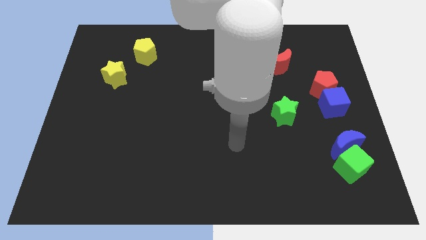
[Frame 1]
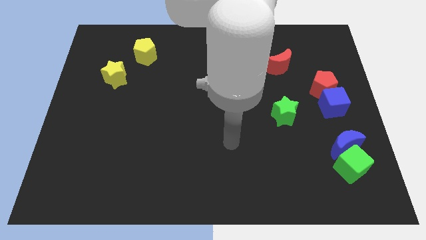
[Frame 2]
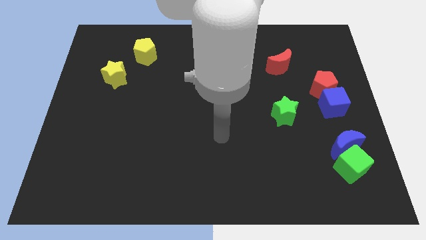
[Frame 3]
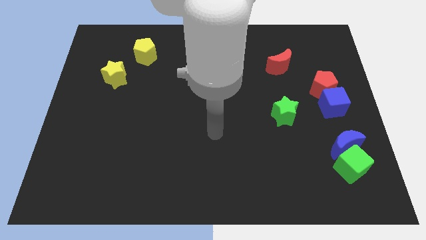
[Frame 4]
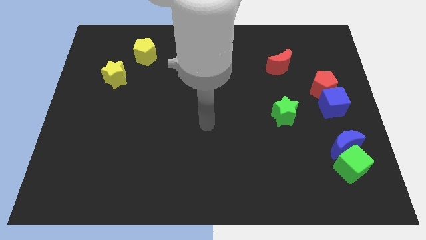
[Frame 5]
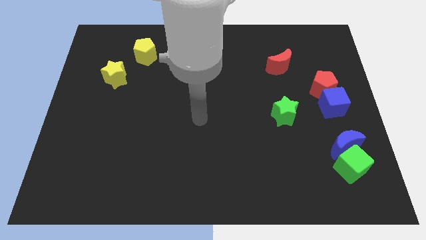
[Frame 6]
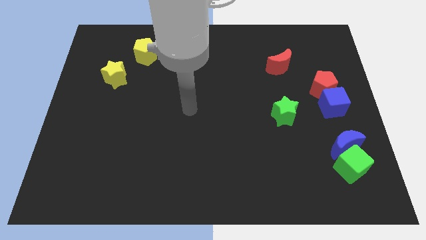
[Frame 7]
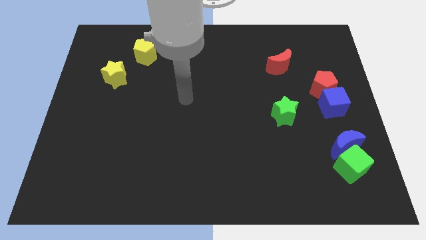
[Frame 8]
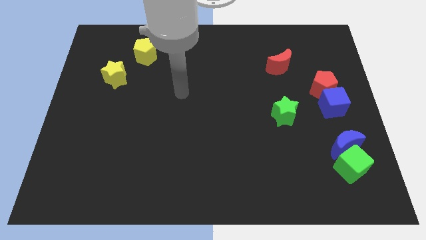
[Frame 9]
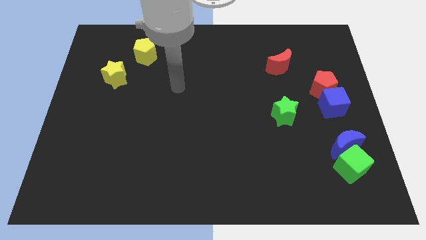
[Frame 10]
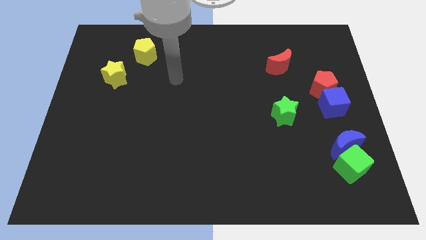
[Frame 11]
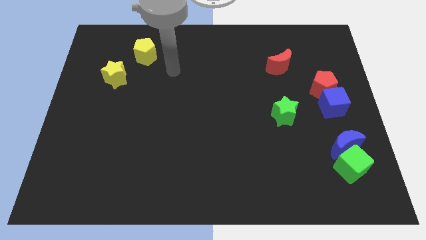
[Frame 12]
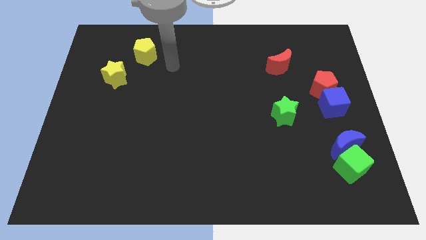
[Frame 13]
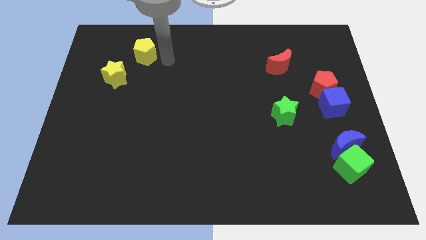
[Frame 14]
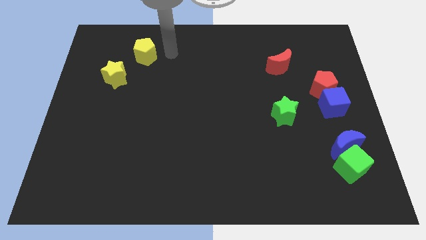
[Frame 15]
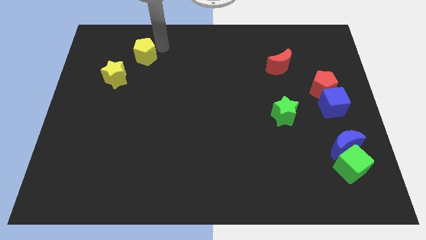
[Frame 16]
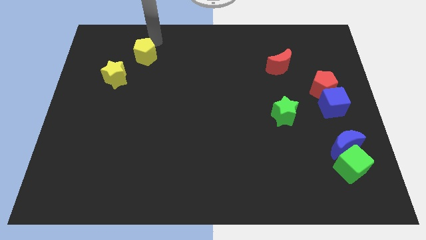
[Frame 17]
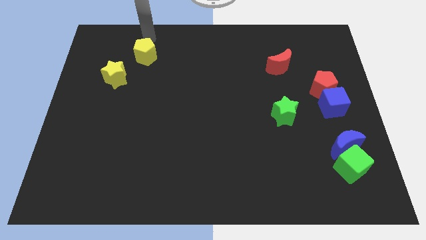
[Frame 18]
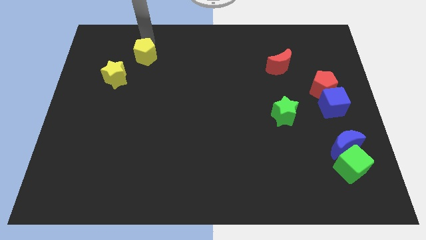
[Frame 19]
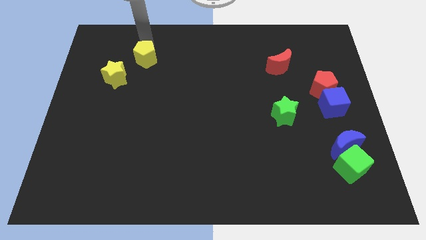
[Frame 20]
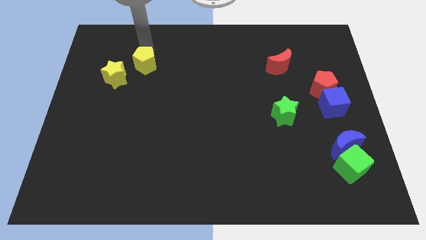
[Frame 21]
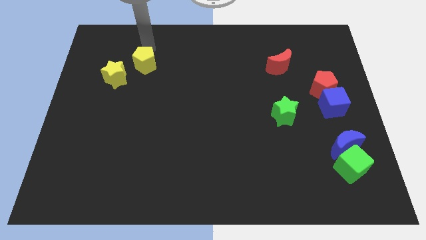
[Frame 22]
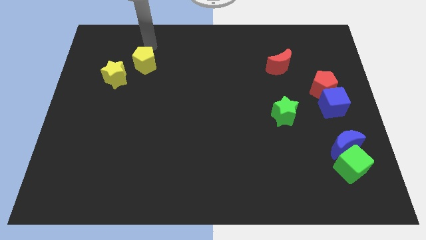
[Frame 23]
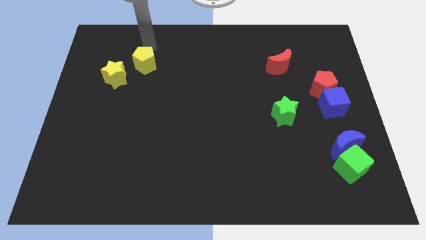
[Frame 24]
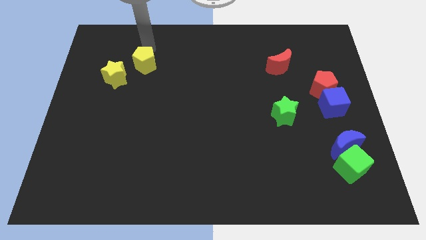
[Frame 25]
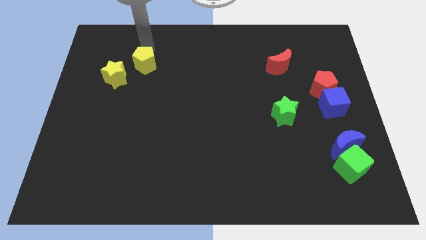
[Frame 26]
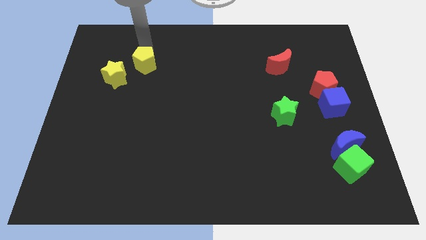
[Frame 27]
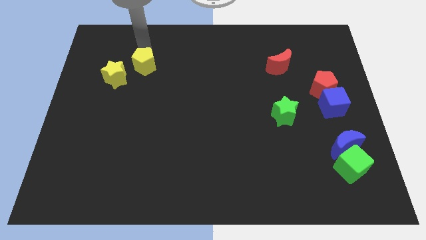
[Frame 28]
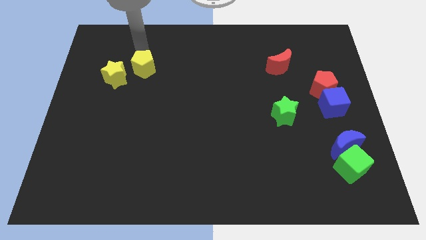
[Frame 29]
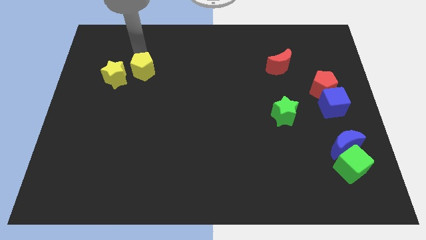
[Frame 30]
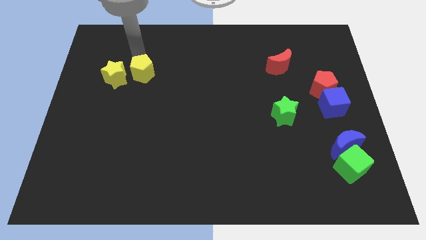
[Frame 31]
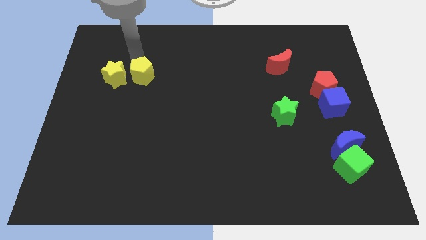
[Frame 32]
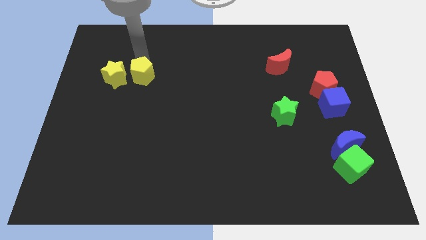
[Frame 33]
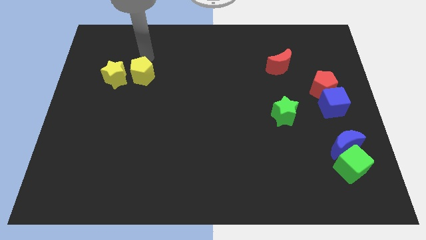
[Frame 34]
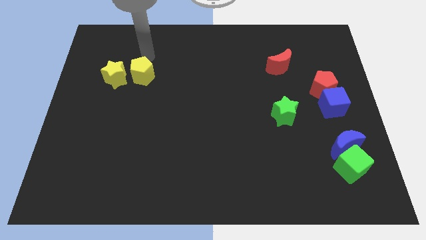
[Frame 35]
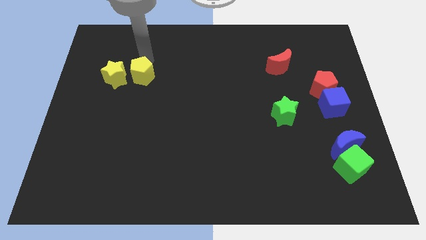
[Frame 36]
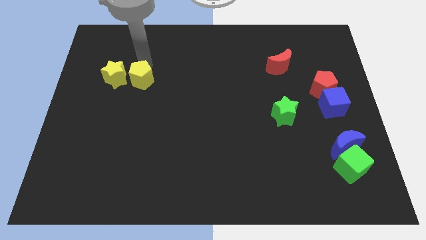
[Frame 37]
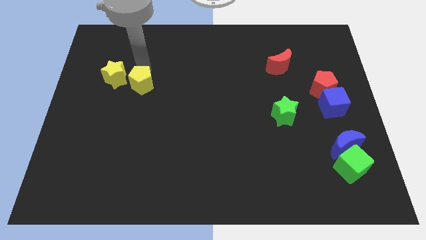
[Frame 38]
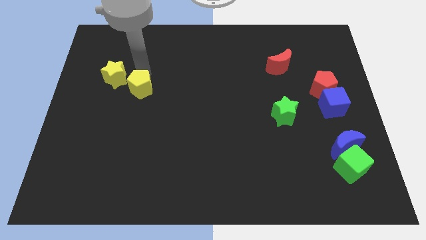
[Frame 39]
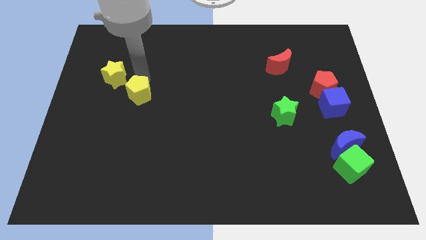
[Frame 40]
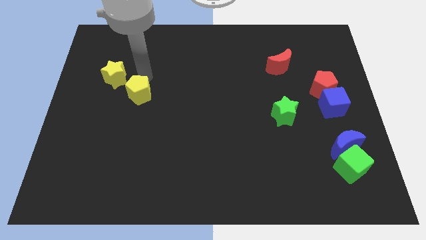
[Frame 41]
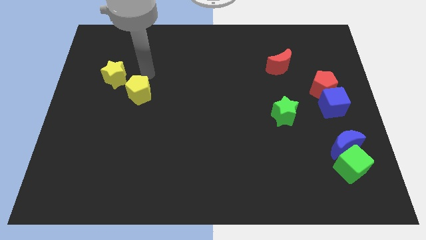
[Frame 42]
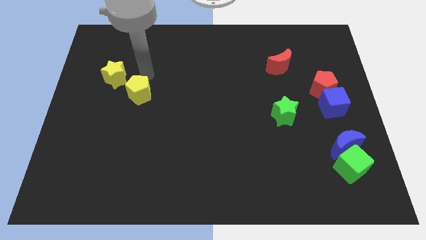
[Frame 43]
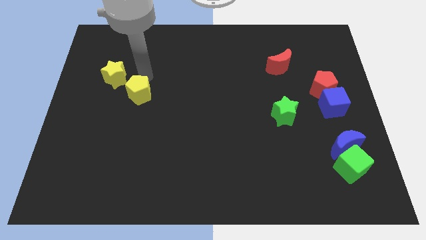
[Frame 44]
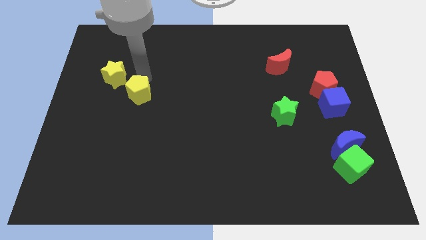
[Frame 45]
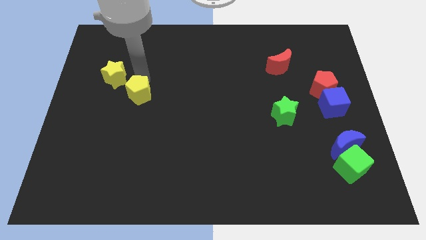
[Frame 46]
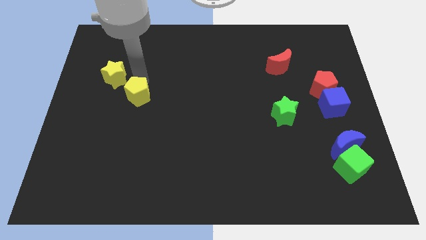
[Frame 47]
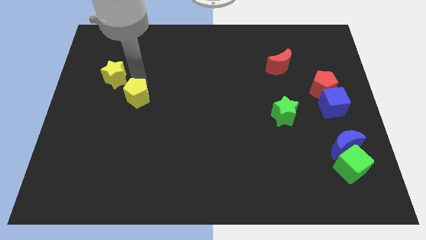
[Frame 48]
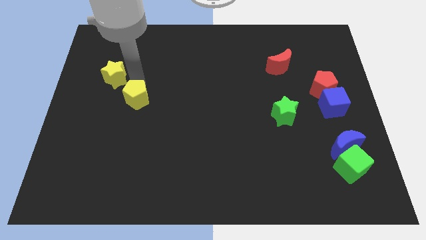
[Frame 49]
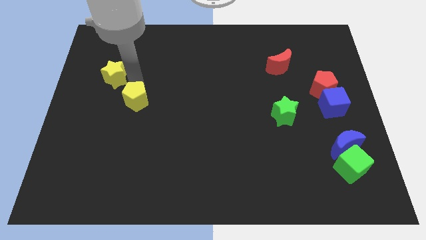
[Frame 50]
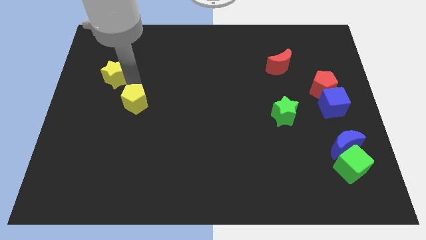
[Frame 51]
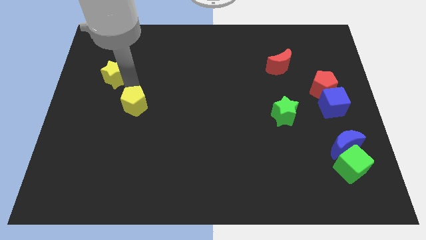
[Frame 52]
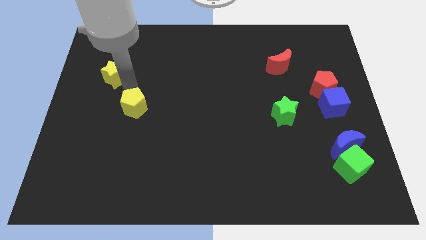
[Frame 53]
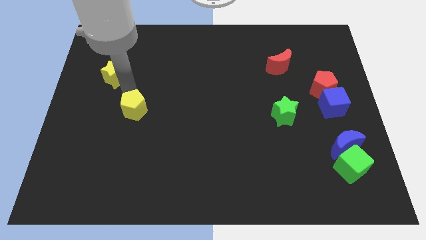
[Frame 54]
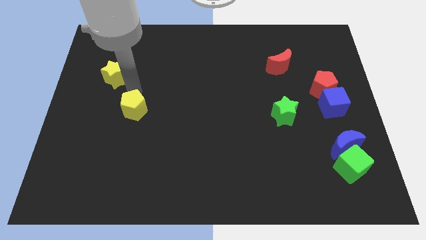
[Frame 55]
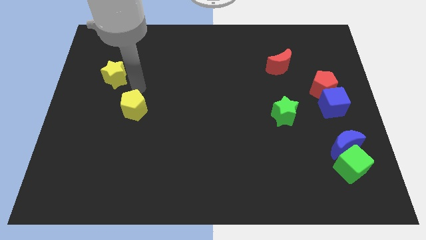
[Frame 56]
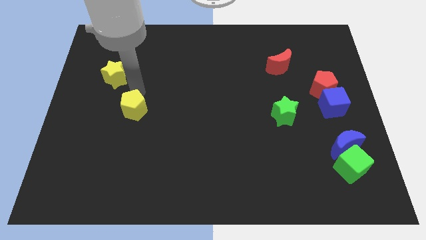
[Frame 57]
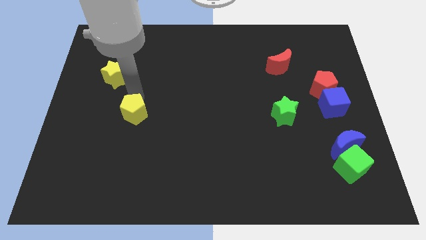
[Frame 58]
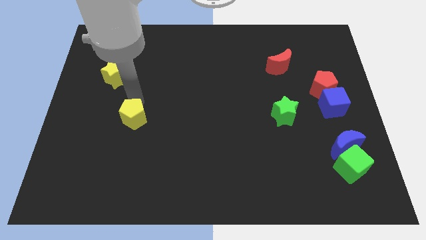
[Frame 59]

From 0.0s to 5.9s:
push the yellow pentagon down

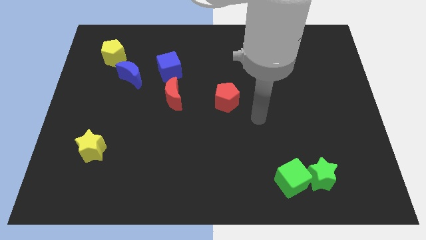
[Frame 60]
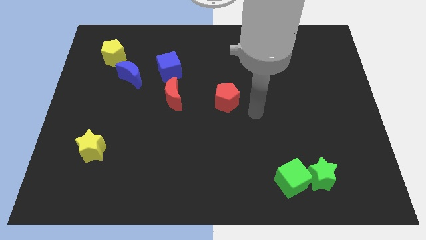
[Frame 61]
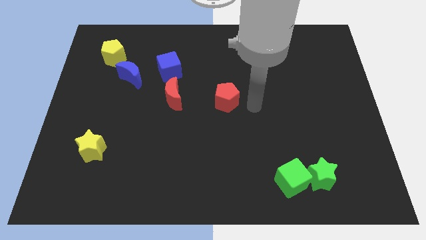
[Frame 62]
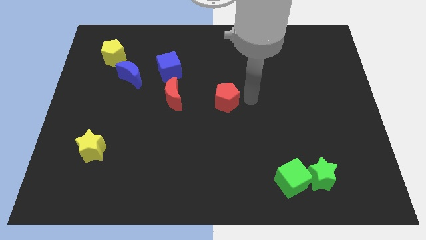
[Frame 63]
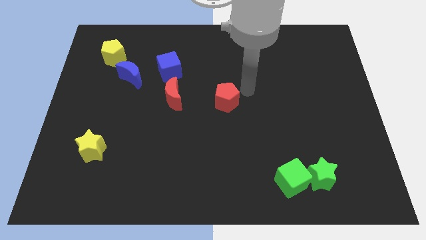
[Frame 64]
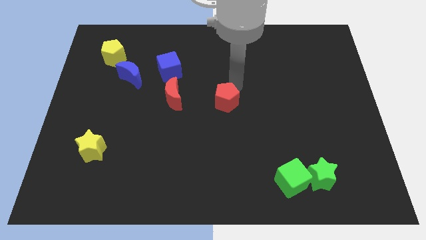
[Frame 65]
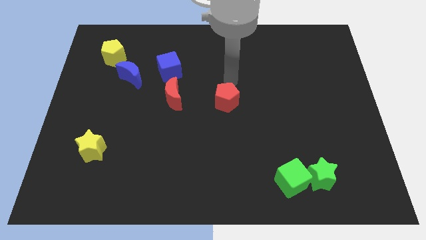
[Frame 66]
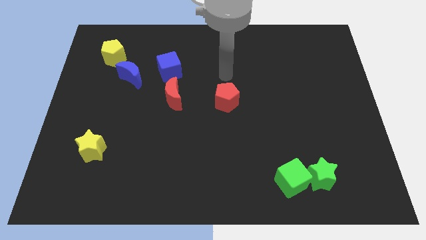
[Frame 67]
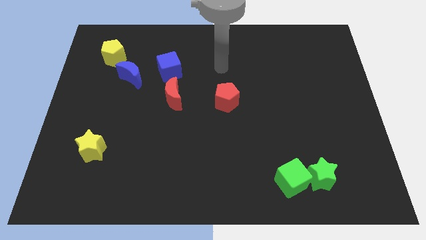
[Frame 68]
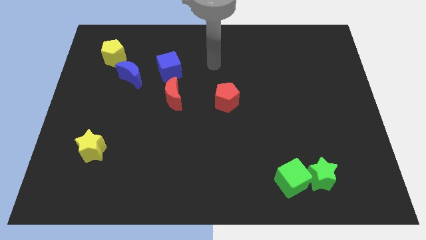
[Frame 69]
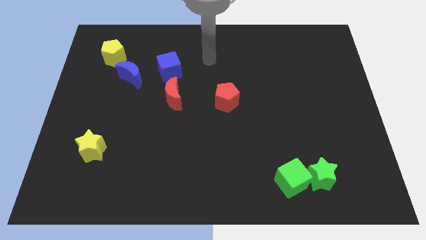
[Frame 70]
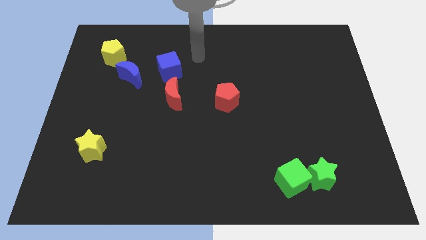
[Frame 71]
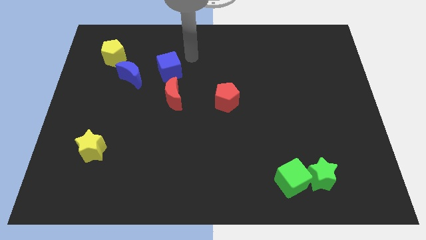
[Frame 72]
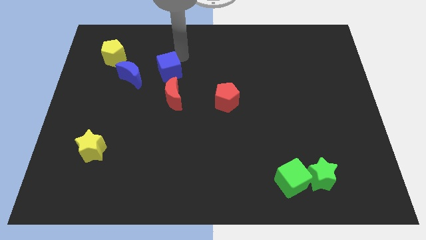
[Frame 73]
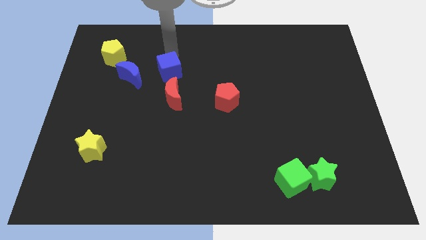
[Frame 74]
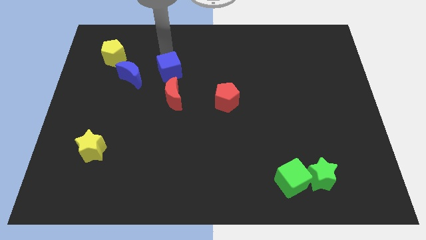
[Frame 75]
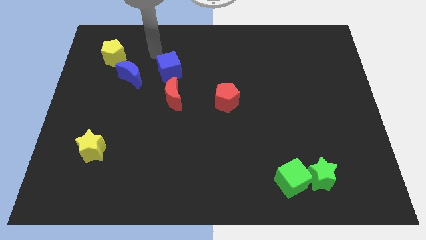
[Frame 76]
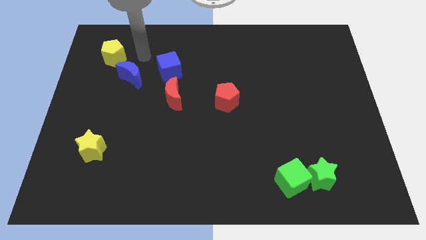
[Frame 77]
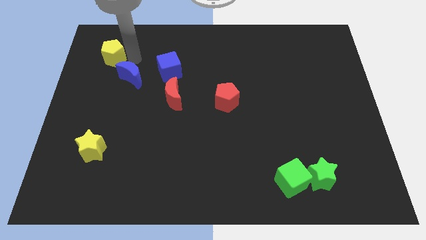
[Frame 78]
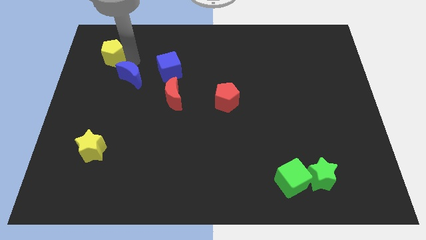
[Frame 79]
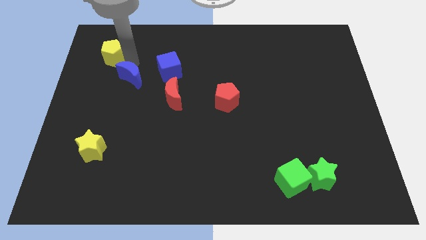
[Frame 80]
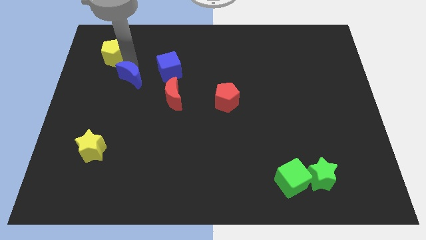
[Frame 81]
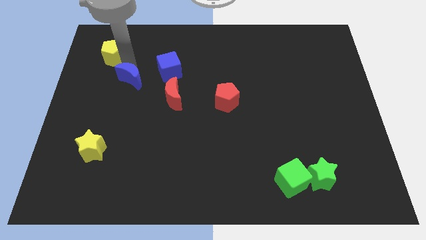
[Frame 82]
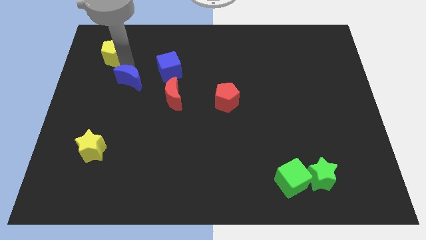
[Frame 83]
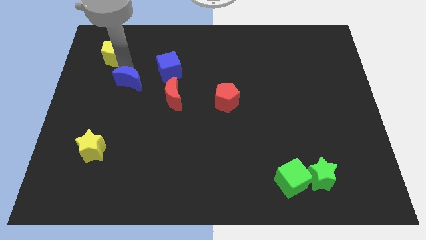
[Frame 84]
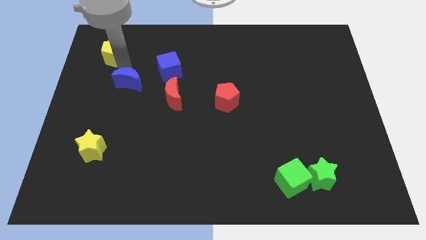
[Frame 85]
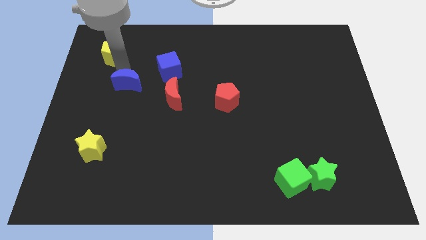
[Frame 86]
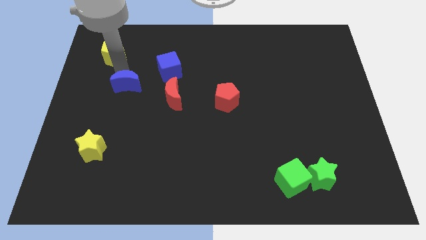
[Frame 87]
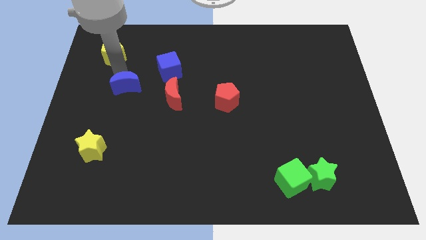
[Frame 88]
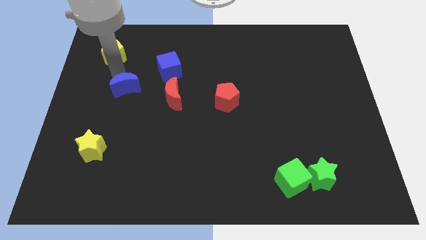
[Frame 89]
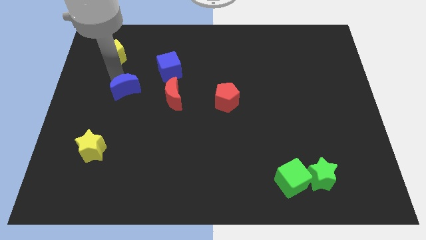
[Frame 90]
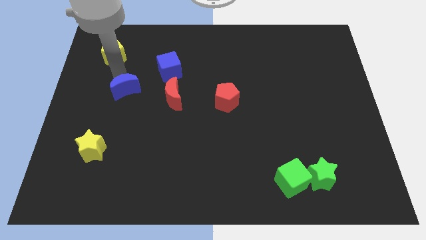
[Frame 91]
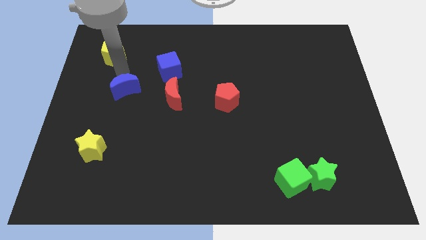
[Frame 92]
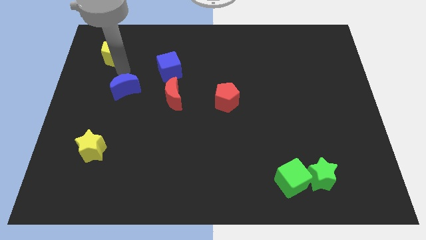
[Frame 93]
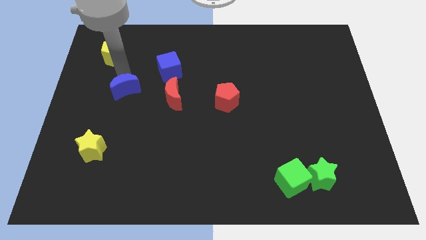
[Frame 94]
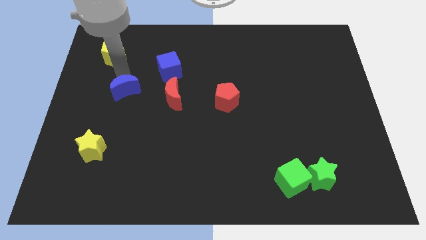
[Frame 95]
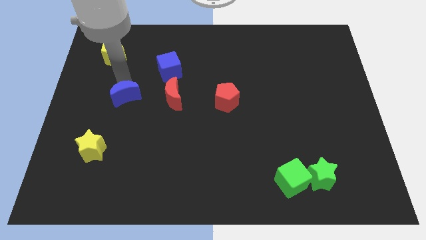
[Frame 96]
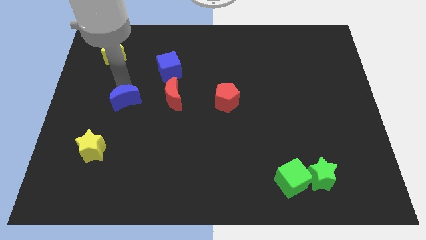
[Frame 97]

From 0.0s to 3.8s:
move the blue moon down a bit
